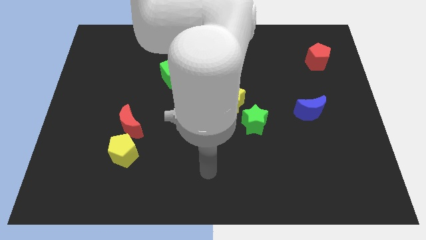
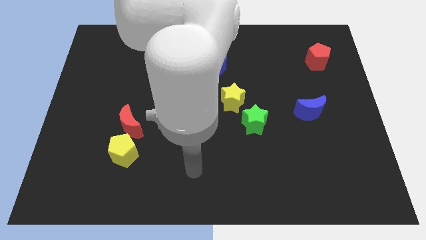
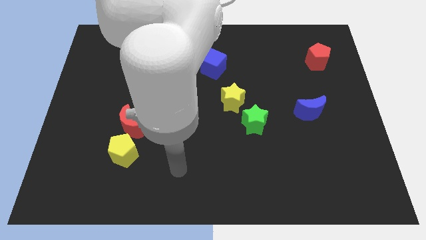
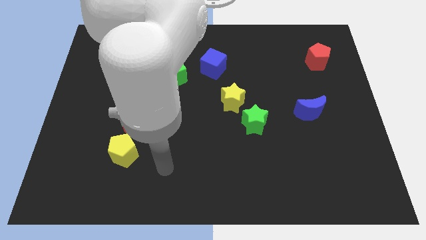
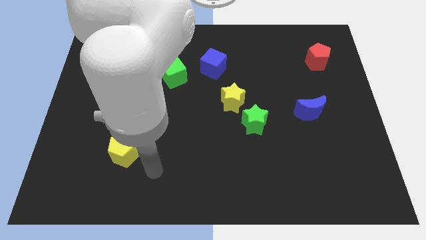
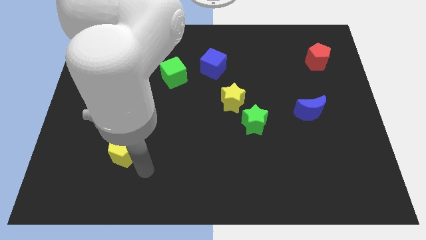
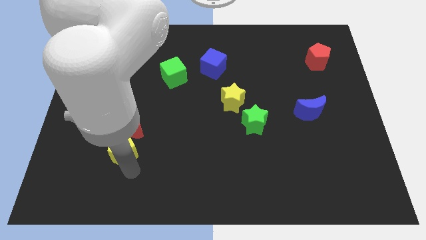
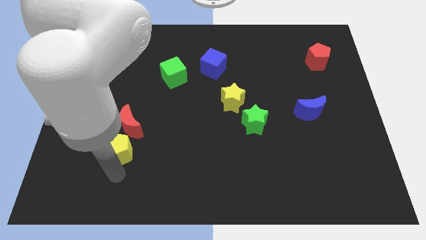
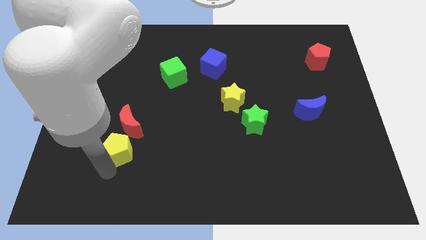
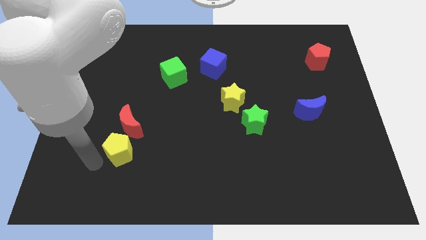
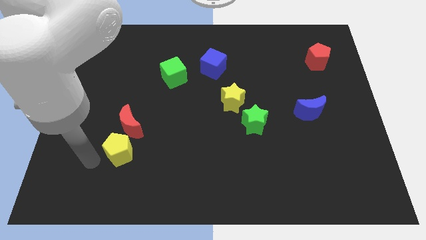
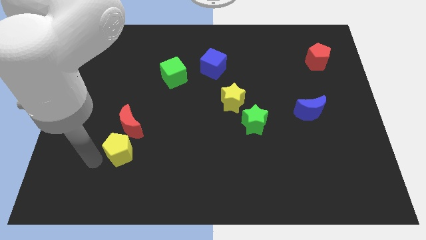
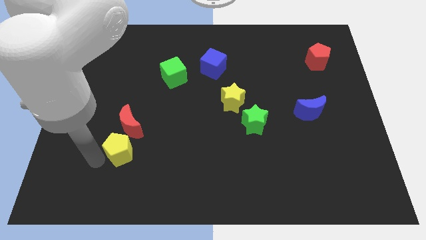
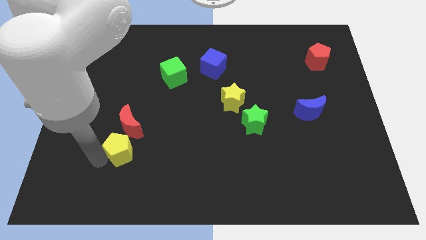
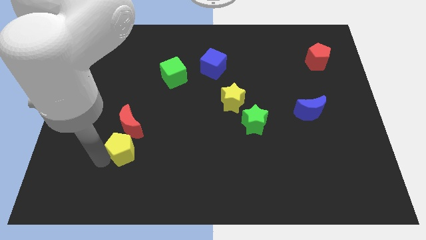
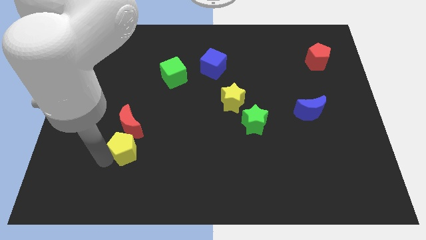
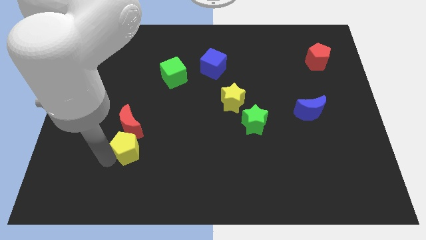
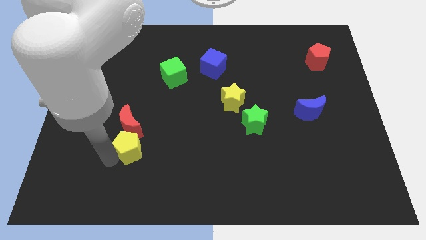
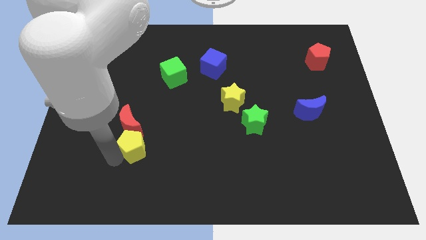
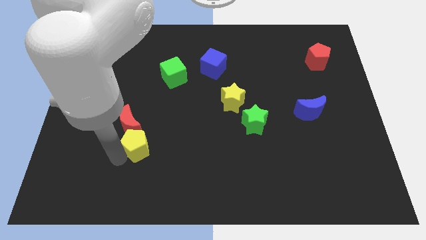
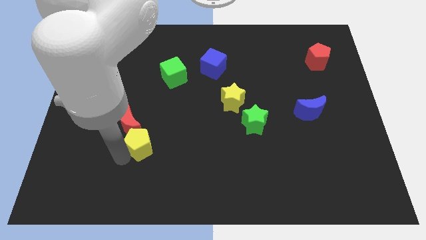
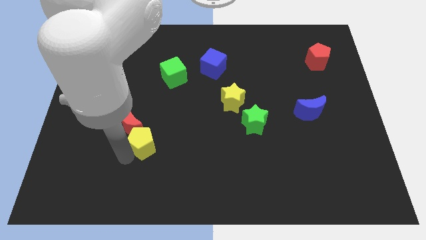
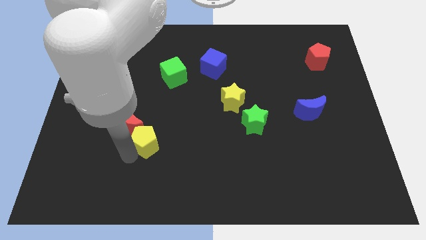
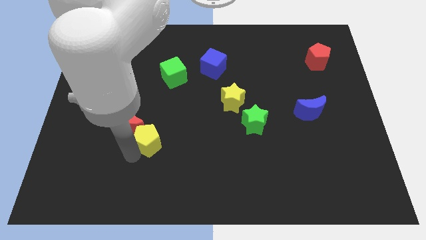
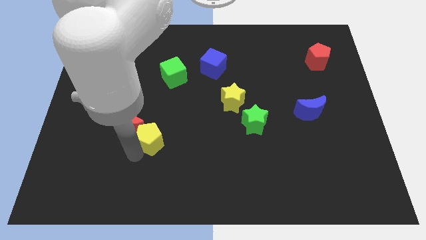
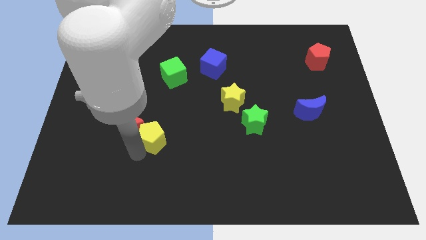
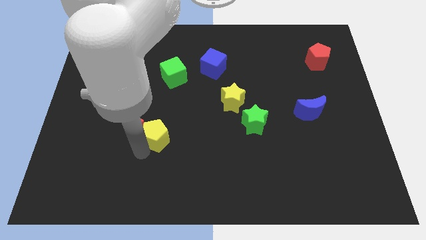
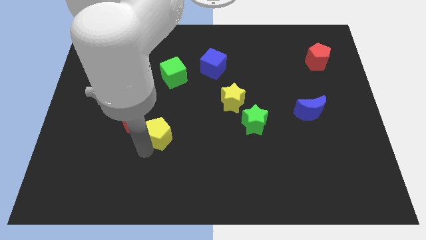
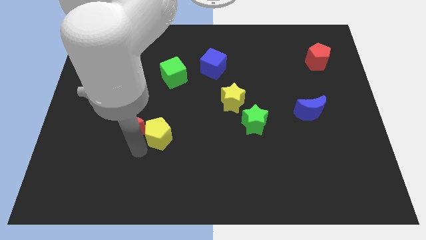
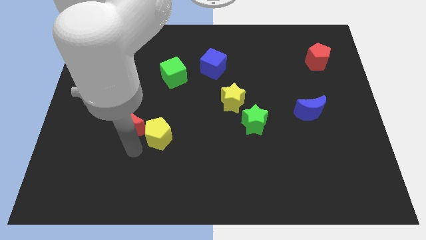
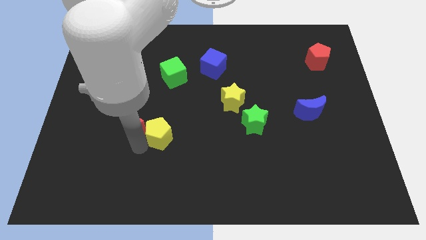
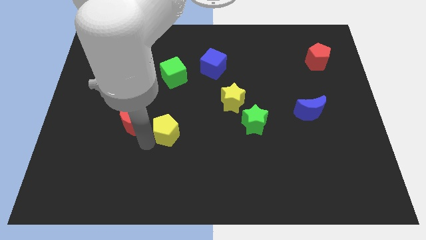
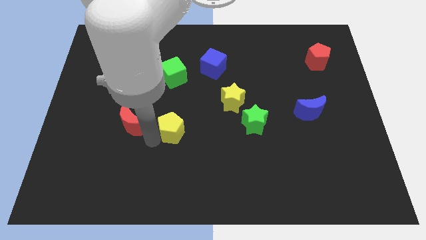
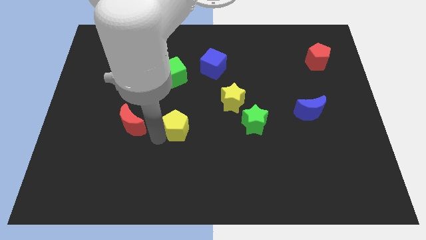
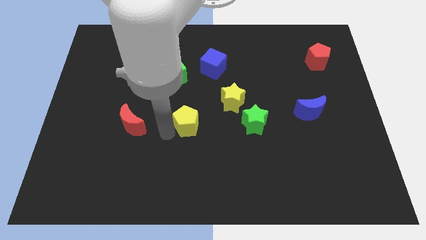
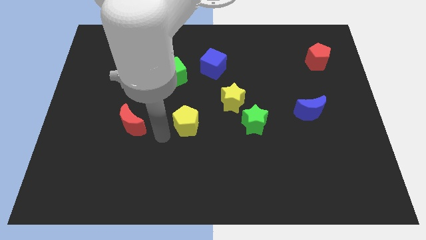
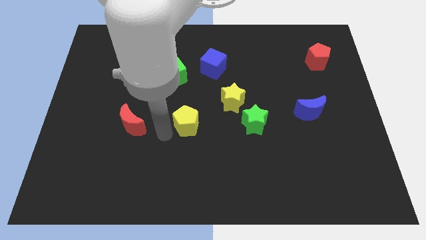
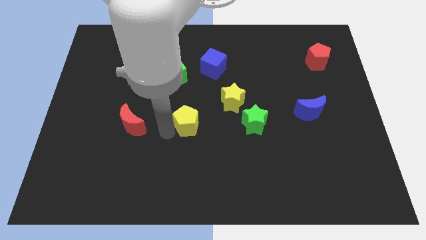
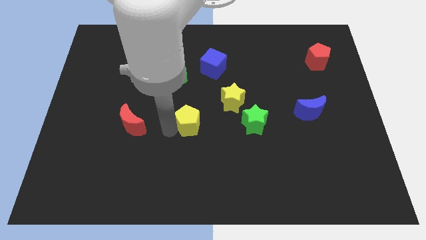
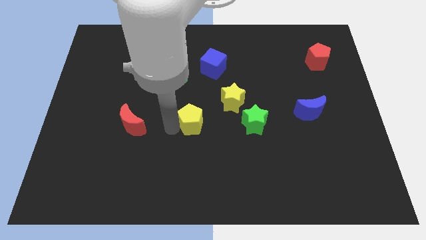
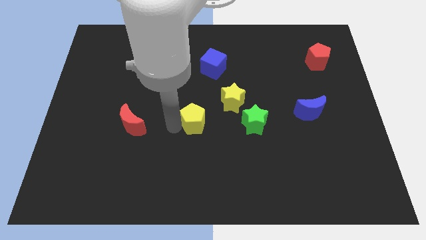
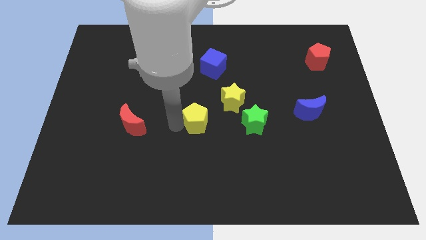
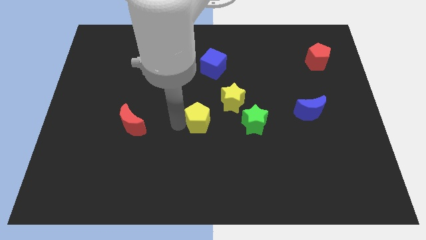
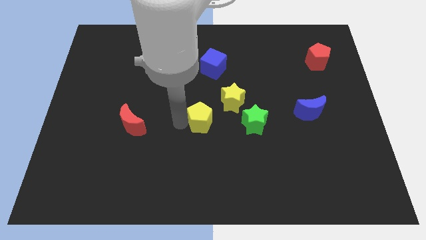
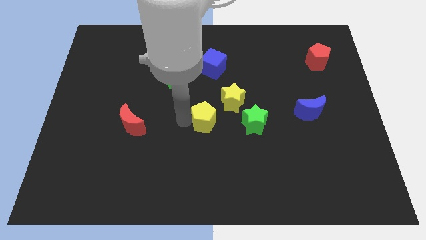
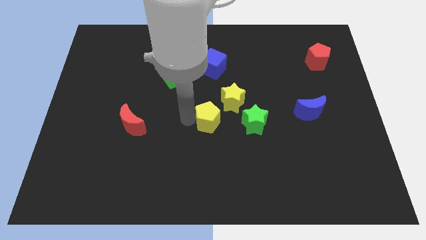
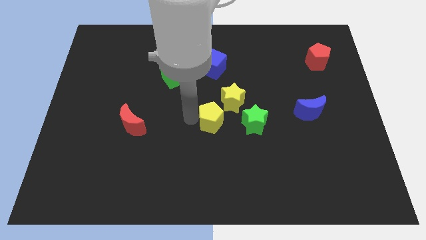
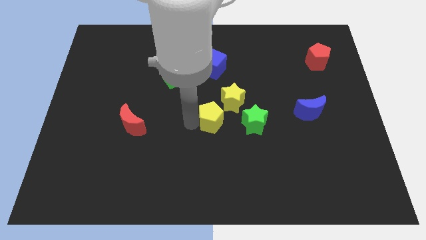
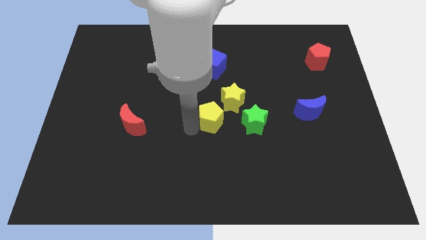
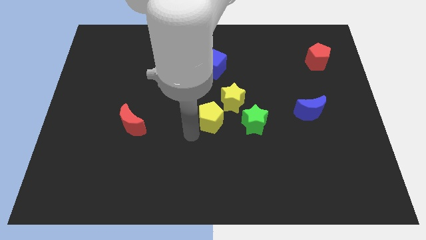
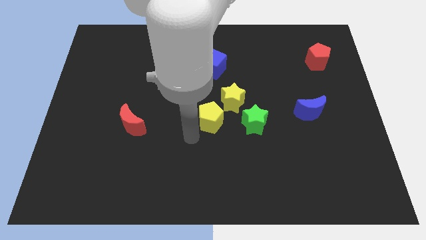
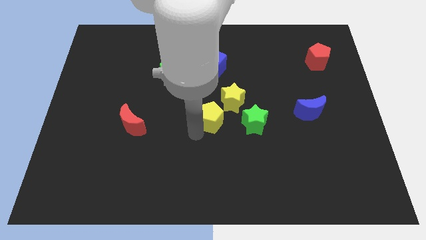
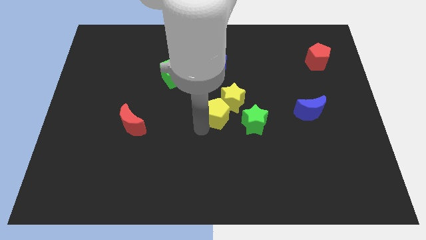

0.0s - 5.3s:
slide the yellow pentagon next to the yellow star

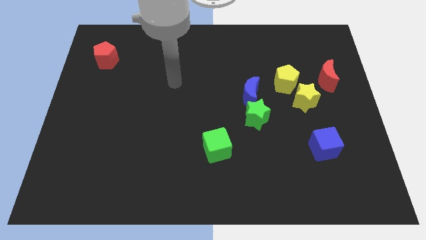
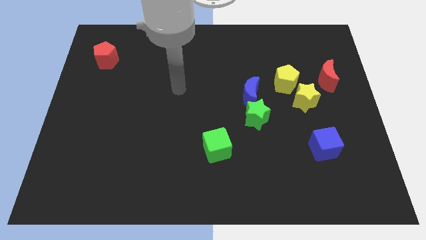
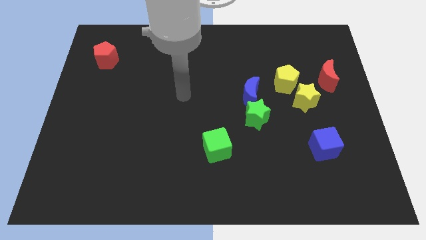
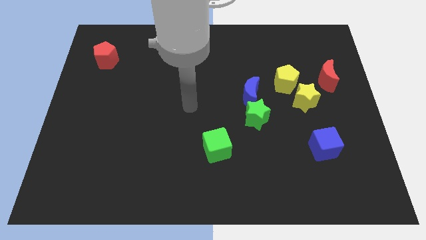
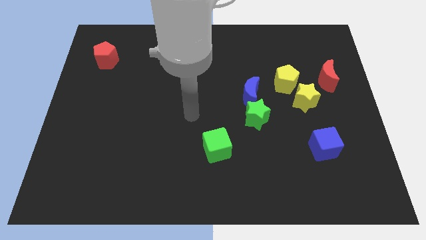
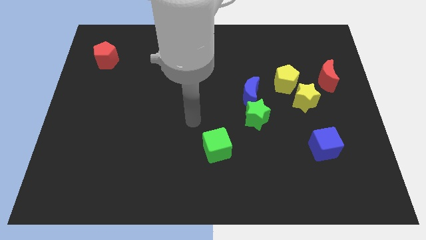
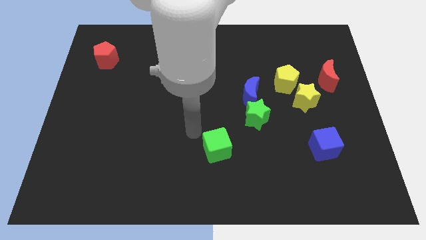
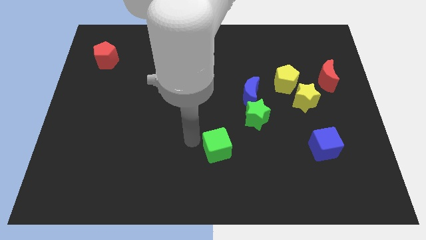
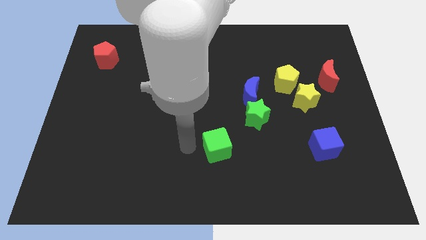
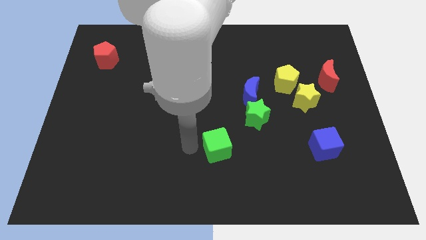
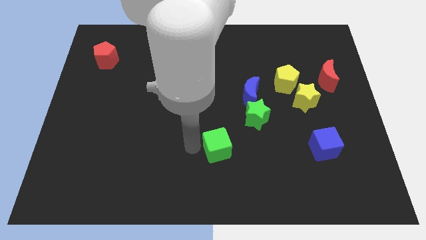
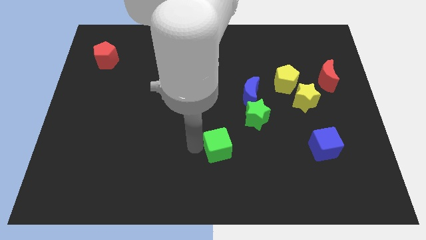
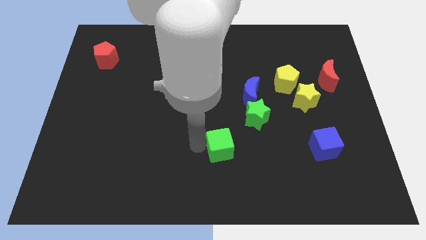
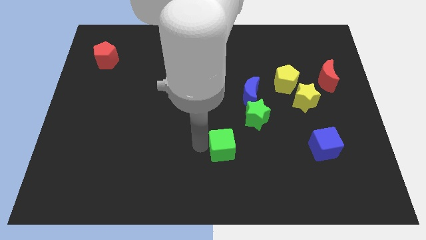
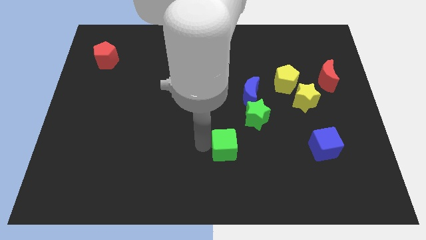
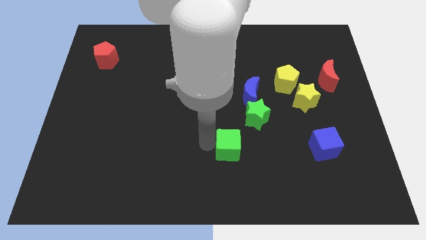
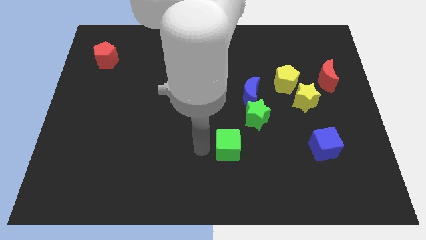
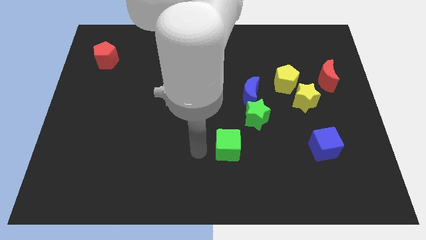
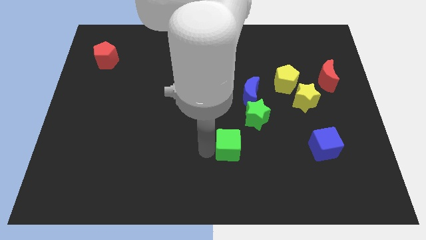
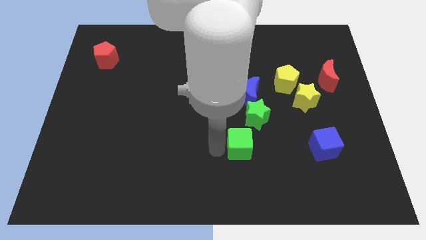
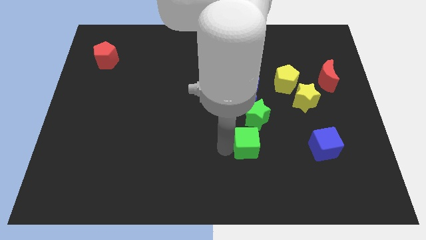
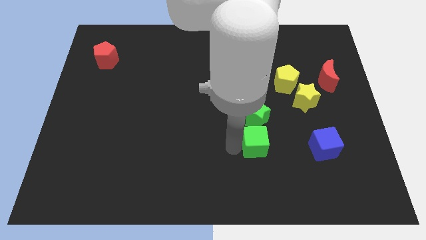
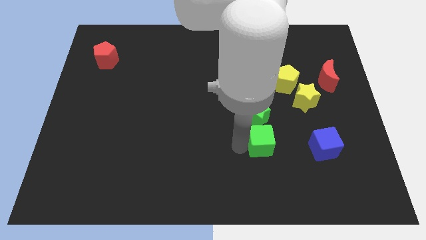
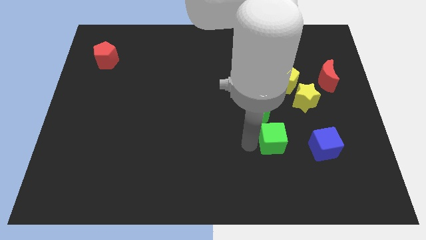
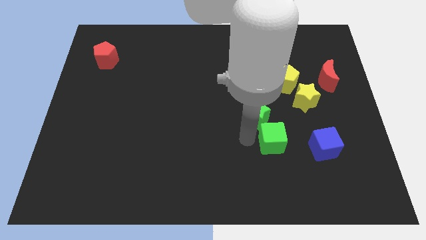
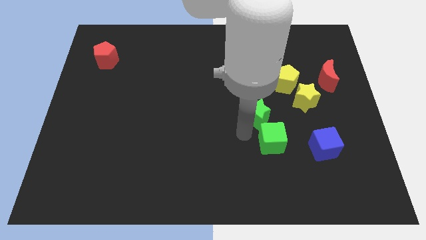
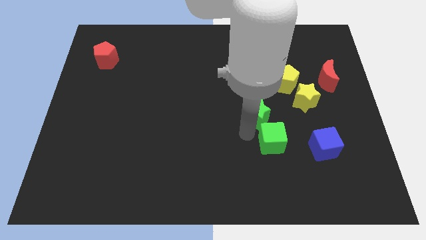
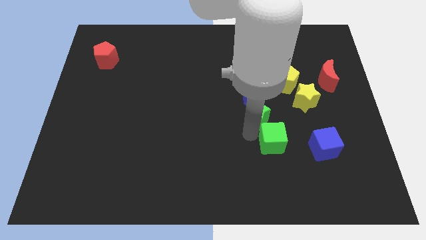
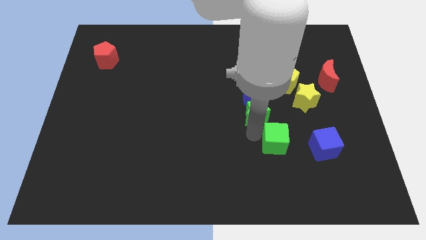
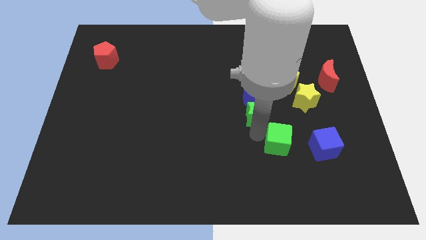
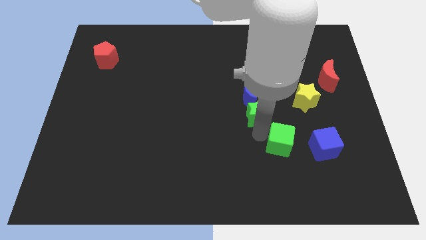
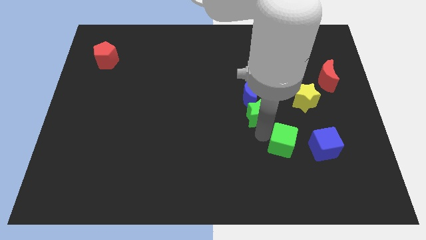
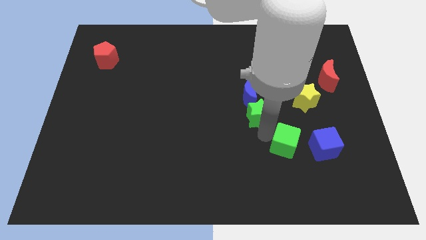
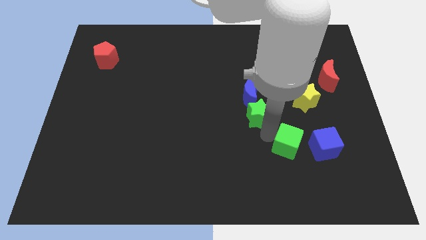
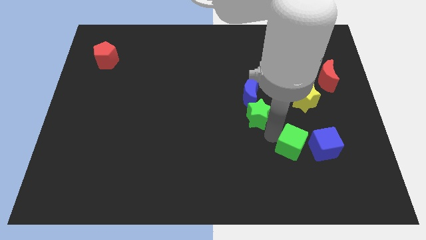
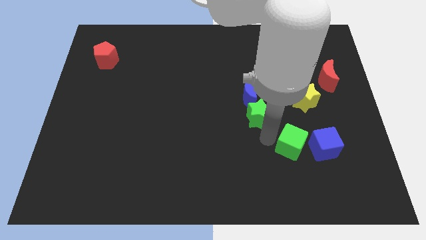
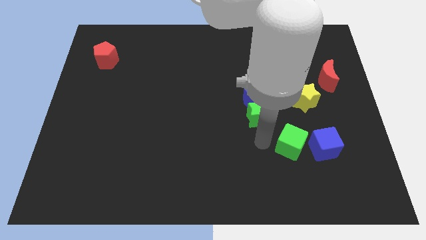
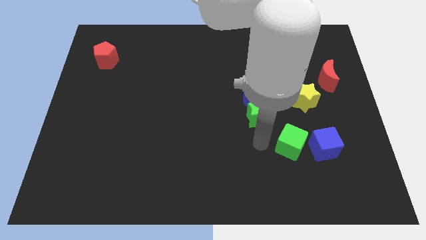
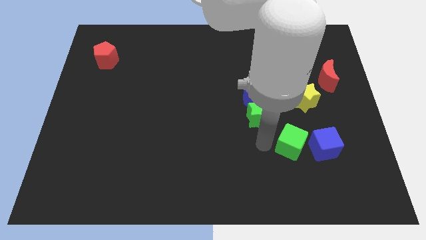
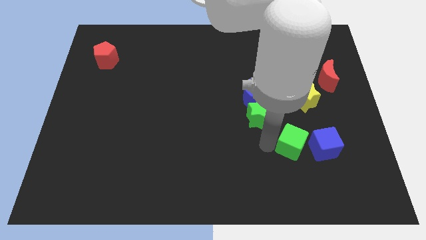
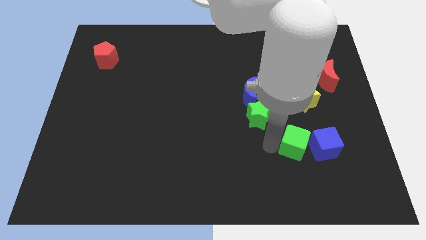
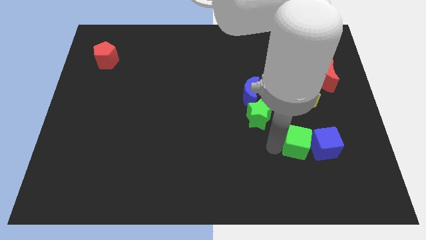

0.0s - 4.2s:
push the green cube close to the blue cube
